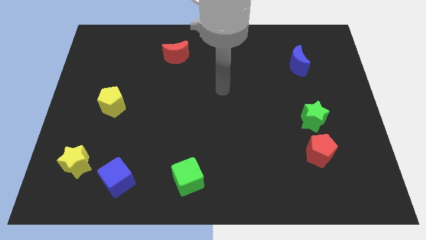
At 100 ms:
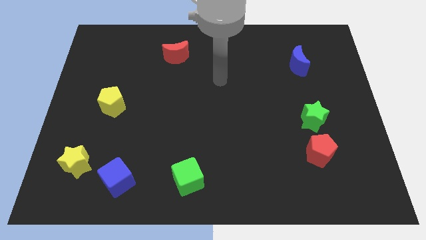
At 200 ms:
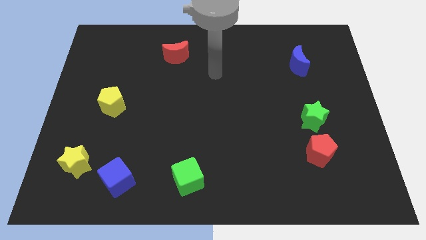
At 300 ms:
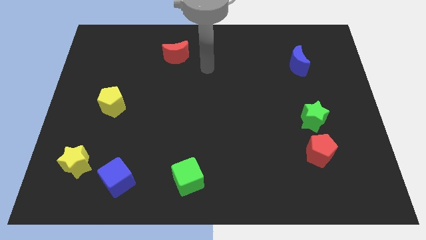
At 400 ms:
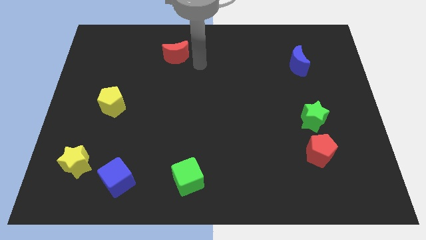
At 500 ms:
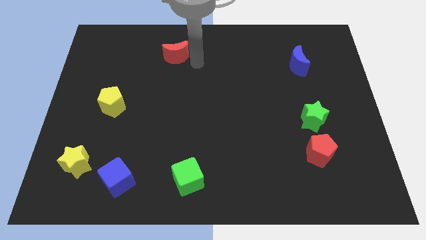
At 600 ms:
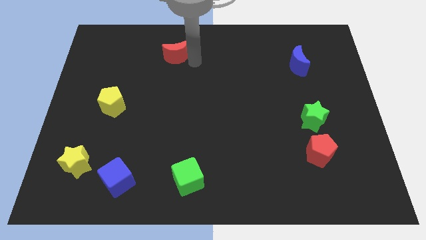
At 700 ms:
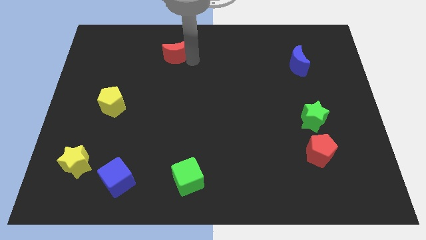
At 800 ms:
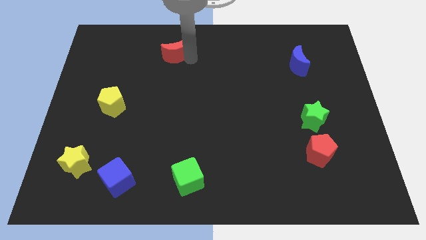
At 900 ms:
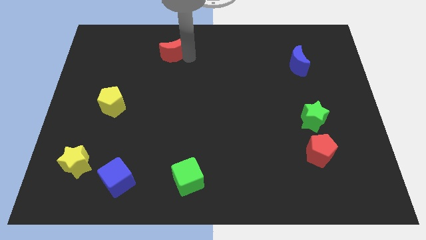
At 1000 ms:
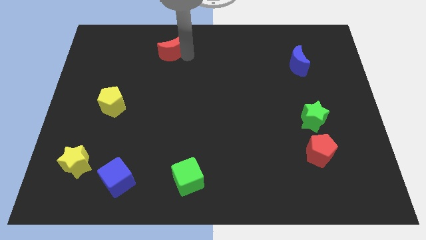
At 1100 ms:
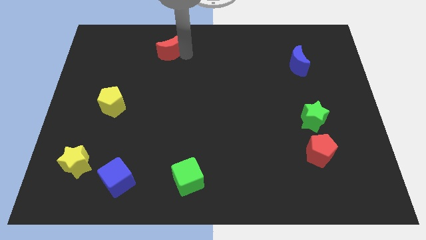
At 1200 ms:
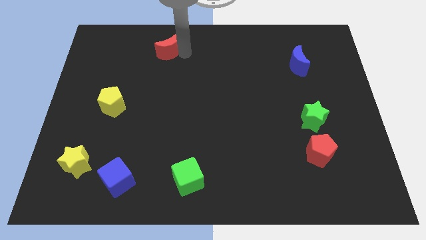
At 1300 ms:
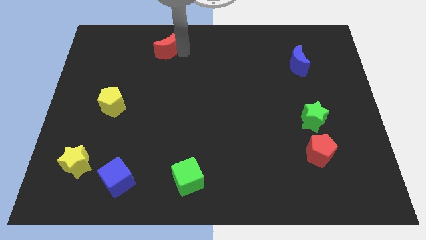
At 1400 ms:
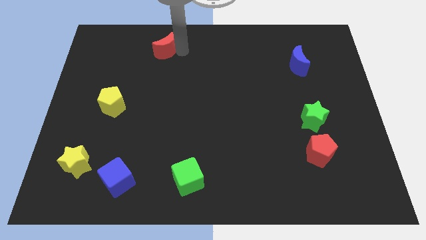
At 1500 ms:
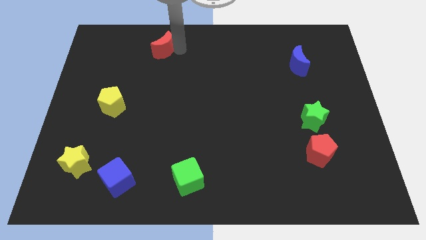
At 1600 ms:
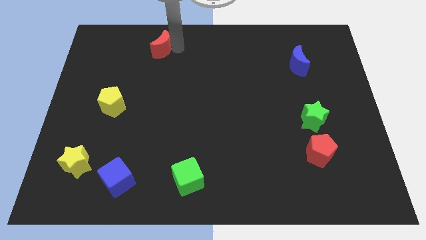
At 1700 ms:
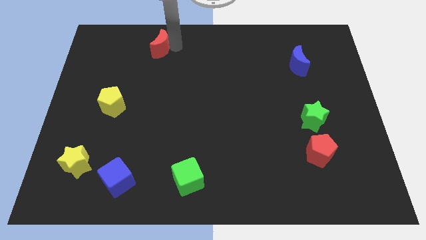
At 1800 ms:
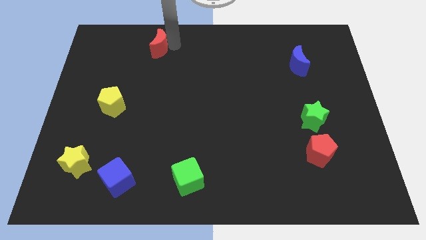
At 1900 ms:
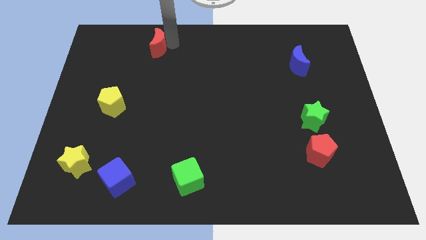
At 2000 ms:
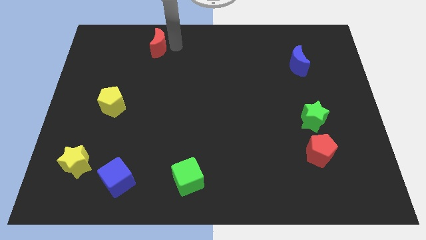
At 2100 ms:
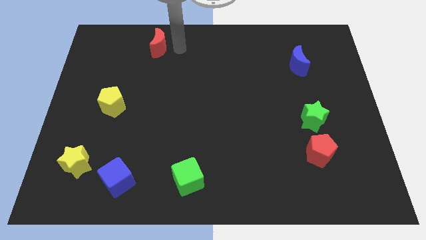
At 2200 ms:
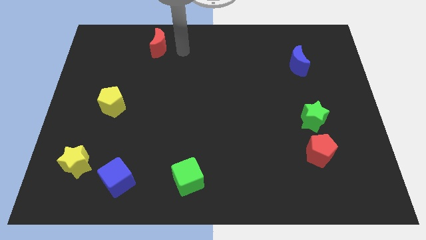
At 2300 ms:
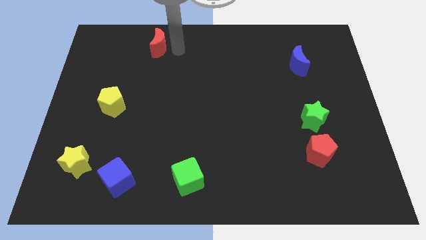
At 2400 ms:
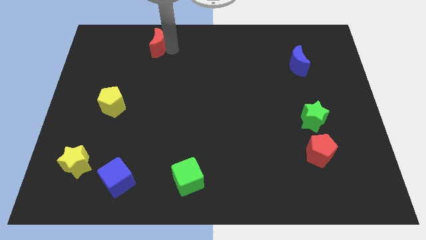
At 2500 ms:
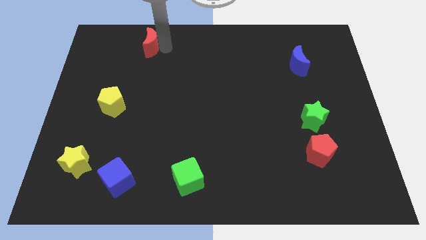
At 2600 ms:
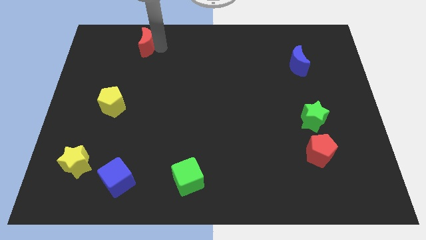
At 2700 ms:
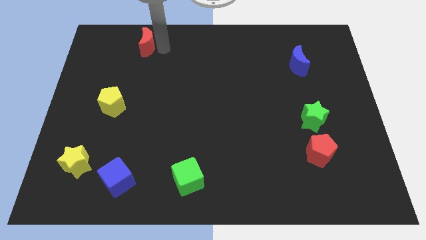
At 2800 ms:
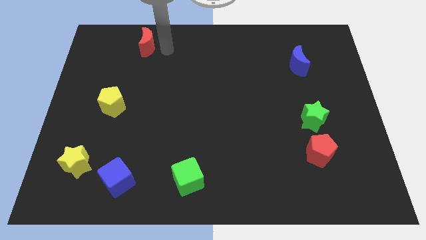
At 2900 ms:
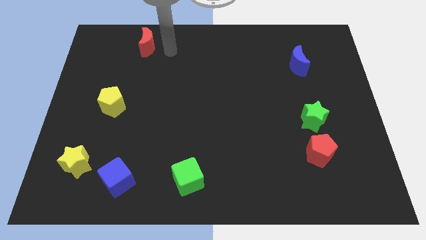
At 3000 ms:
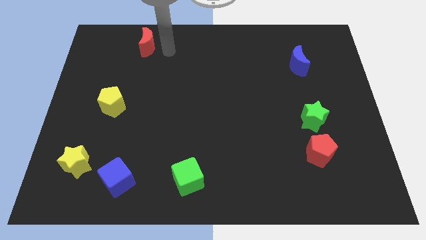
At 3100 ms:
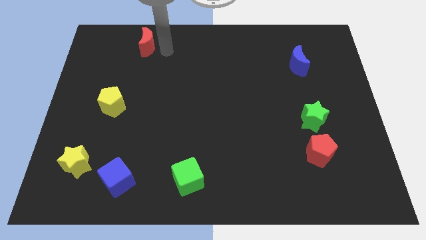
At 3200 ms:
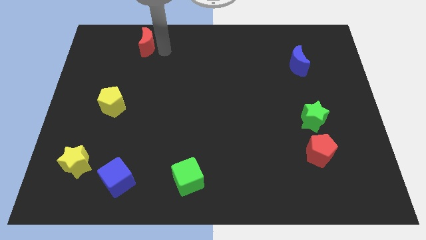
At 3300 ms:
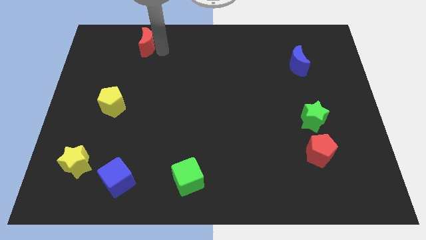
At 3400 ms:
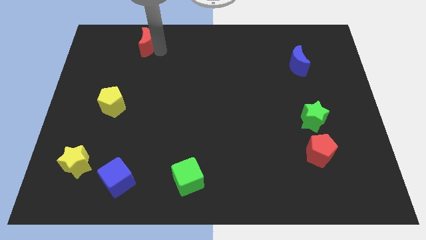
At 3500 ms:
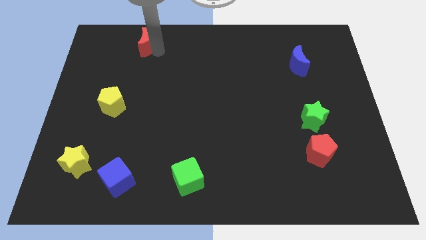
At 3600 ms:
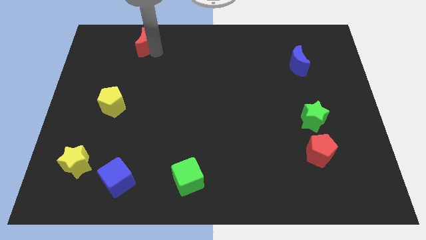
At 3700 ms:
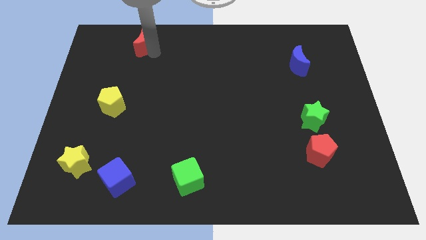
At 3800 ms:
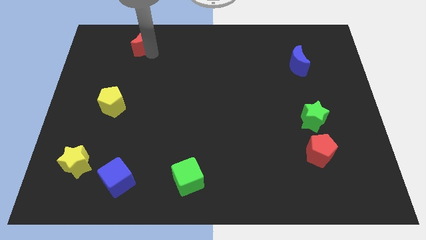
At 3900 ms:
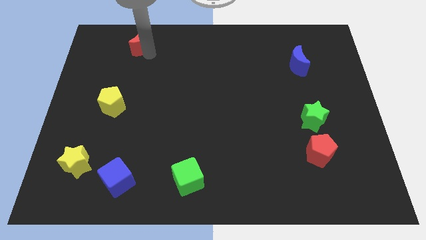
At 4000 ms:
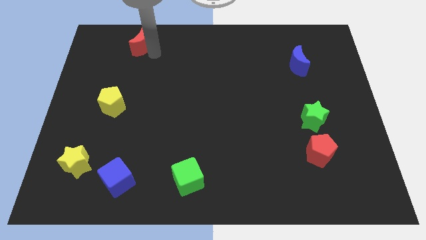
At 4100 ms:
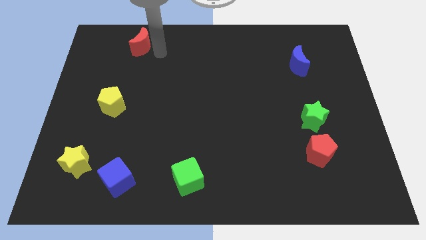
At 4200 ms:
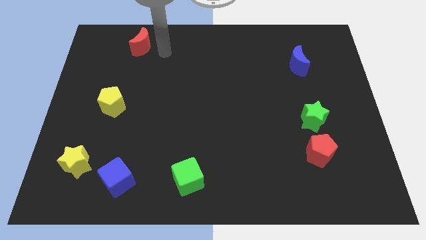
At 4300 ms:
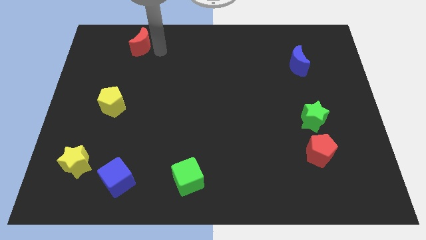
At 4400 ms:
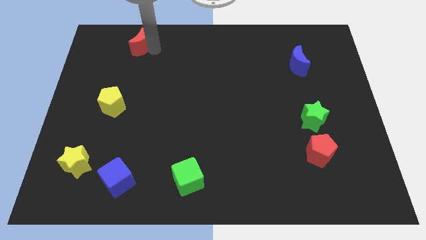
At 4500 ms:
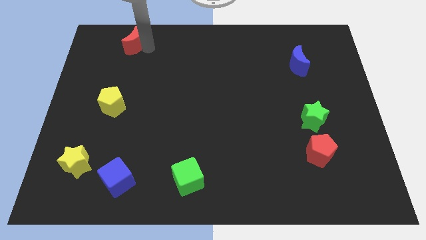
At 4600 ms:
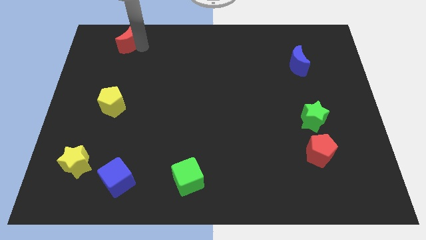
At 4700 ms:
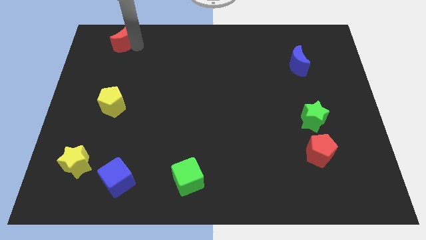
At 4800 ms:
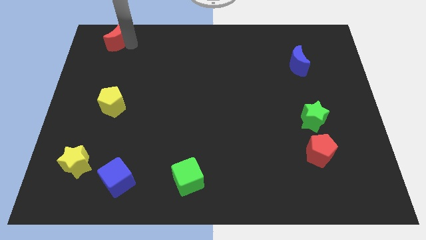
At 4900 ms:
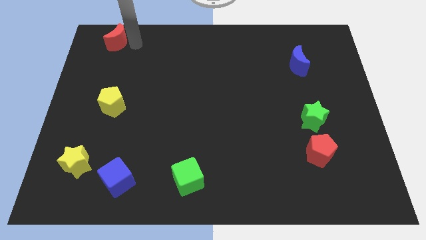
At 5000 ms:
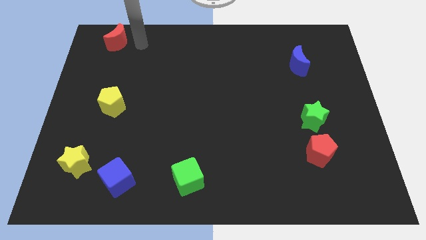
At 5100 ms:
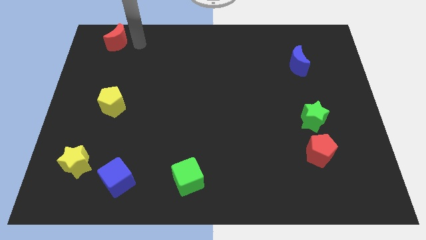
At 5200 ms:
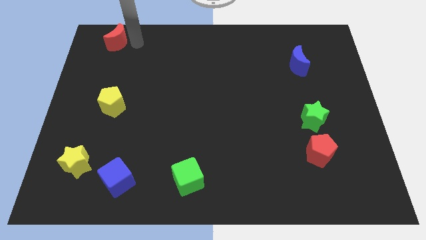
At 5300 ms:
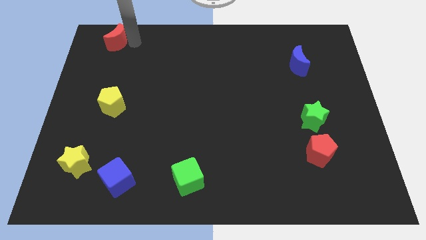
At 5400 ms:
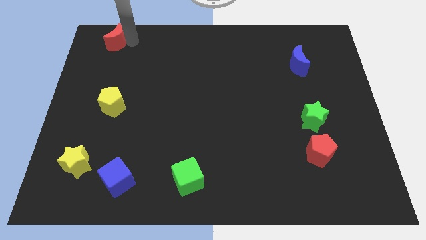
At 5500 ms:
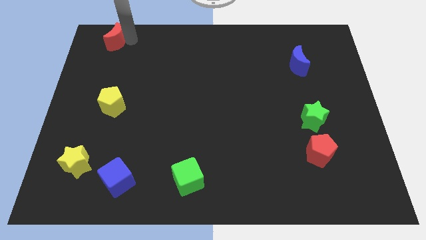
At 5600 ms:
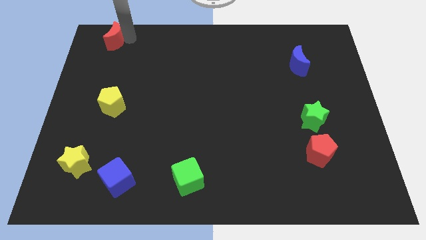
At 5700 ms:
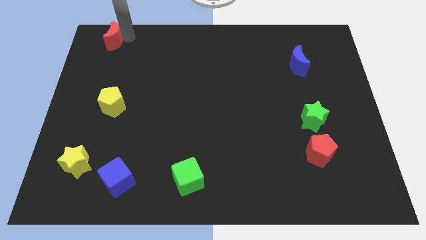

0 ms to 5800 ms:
put the red moon to the top left of the board

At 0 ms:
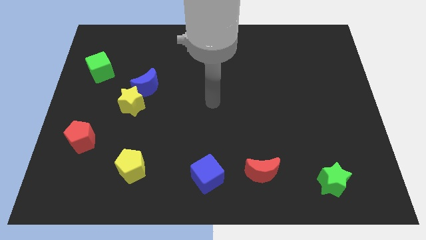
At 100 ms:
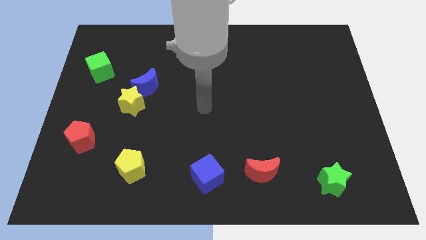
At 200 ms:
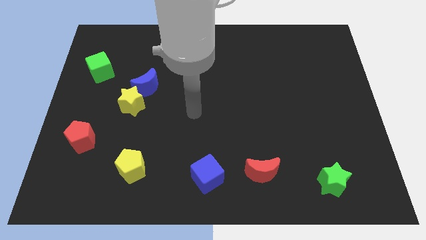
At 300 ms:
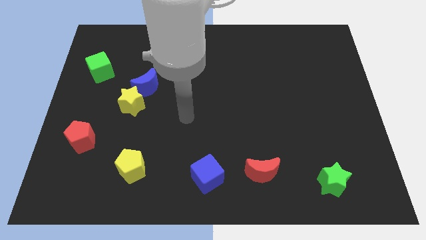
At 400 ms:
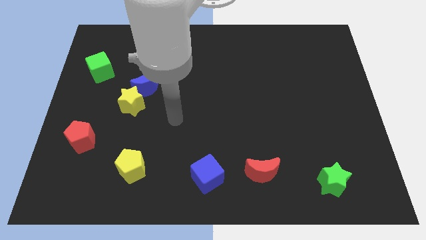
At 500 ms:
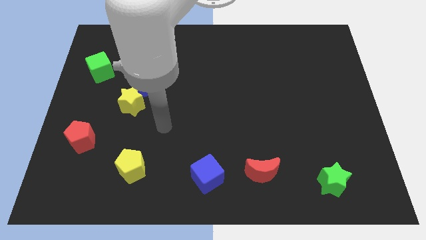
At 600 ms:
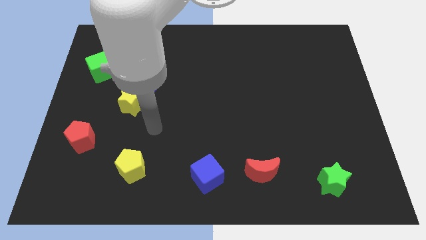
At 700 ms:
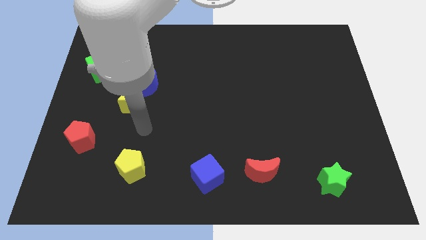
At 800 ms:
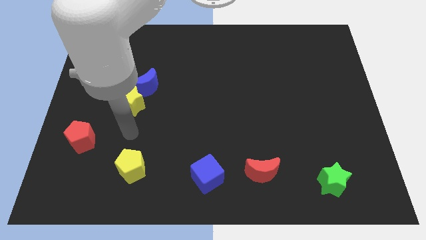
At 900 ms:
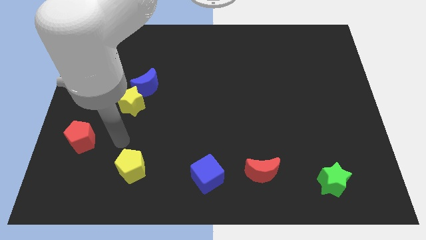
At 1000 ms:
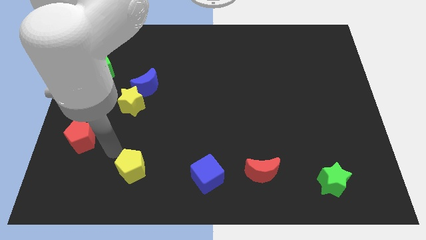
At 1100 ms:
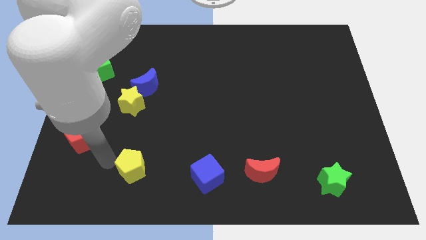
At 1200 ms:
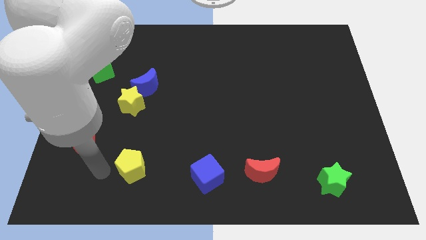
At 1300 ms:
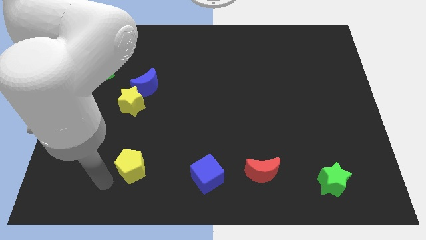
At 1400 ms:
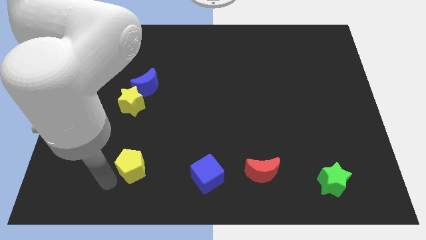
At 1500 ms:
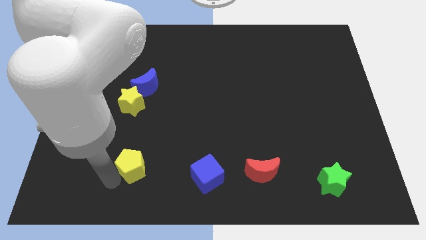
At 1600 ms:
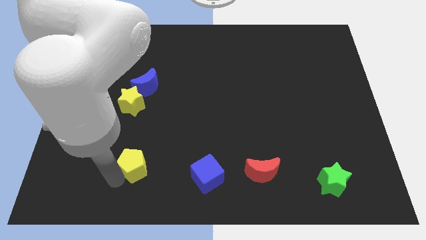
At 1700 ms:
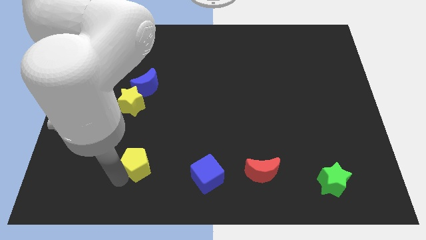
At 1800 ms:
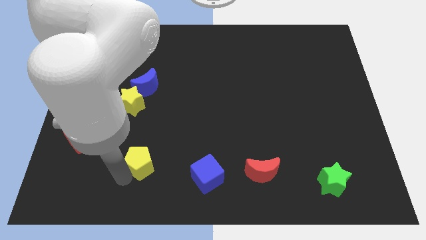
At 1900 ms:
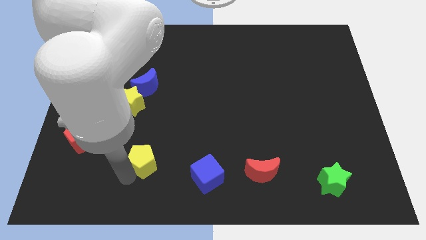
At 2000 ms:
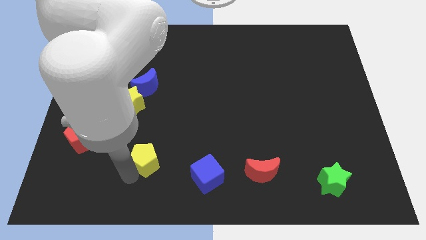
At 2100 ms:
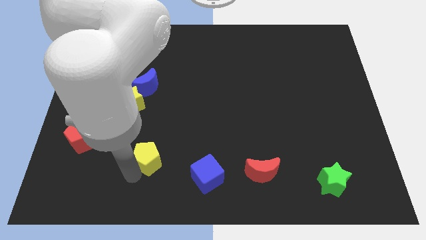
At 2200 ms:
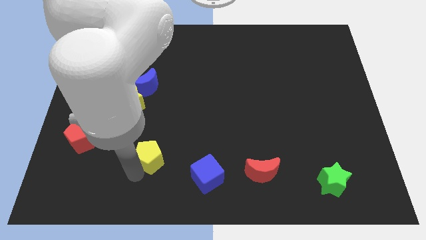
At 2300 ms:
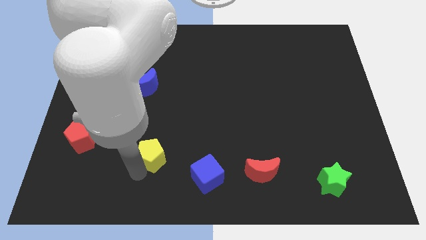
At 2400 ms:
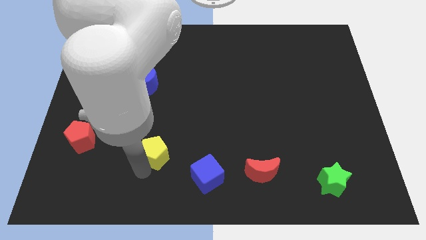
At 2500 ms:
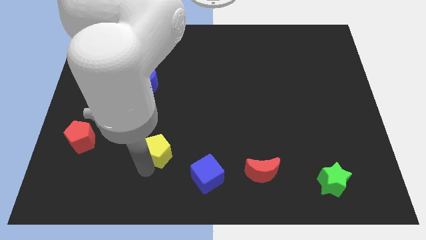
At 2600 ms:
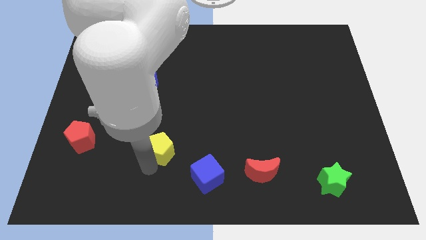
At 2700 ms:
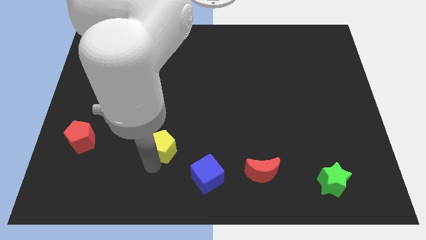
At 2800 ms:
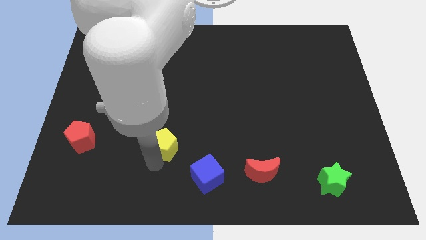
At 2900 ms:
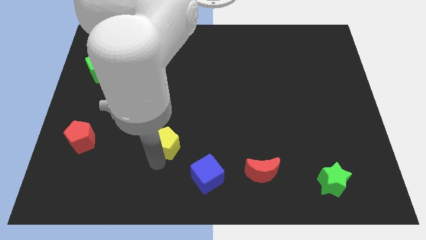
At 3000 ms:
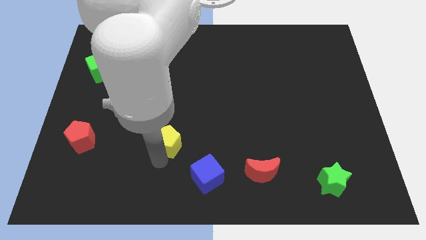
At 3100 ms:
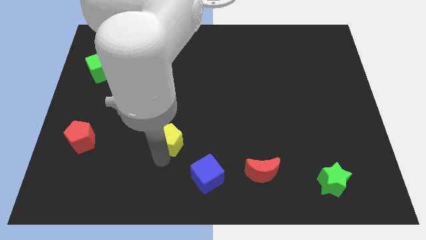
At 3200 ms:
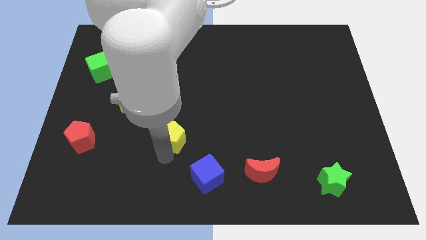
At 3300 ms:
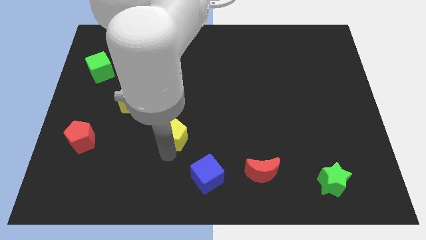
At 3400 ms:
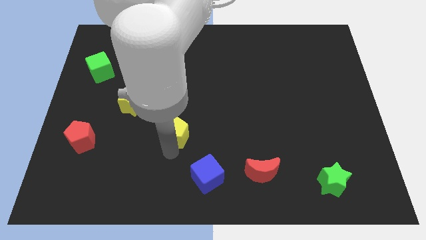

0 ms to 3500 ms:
push the yellow pentagon to the center of the board
